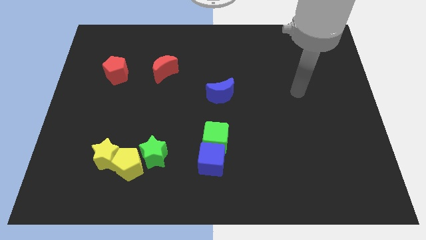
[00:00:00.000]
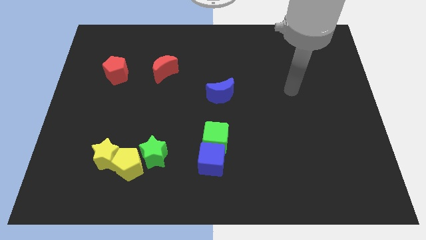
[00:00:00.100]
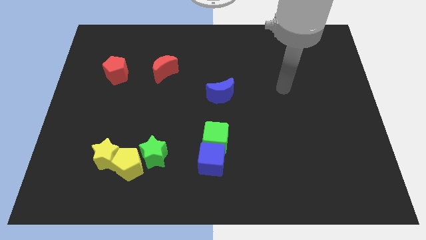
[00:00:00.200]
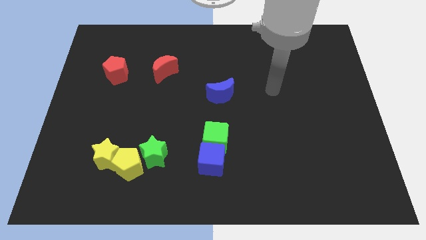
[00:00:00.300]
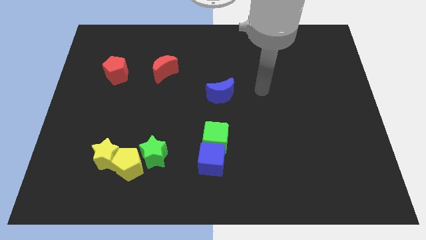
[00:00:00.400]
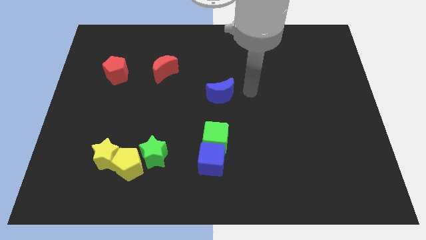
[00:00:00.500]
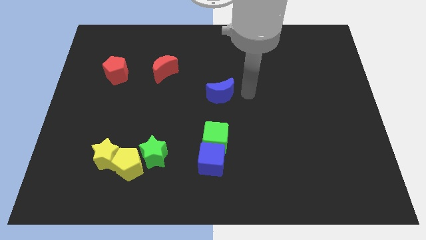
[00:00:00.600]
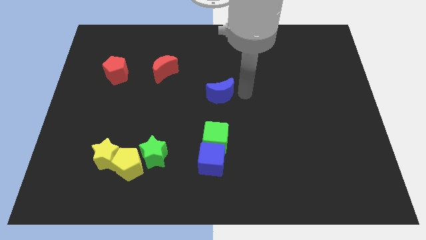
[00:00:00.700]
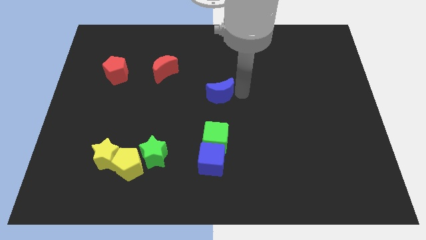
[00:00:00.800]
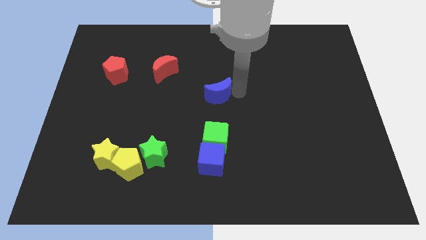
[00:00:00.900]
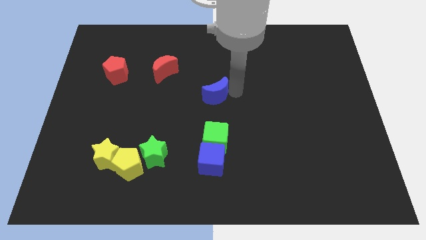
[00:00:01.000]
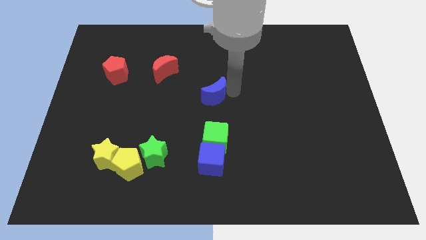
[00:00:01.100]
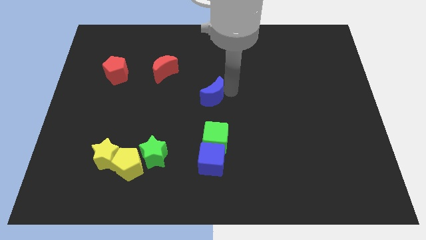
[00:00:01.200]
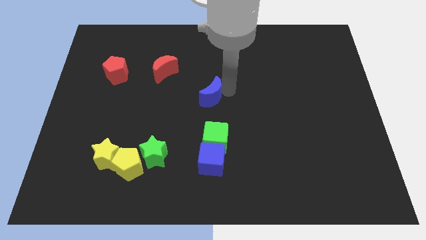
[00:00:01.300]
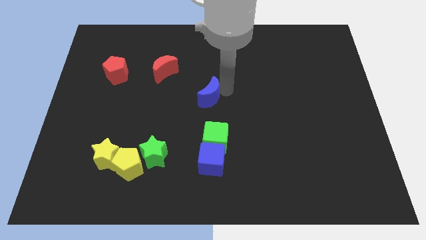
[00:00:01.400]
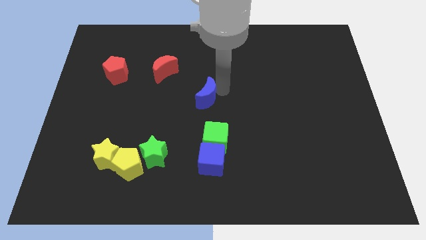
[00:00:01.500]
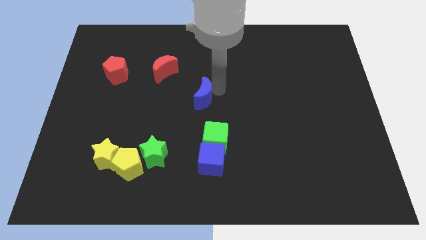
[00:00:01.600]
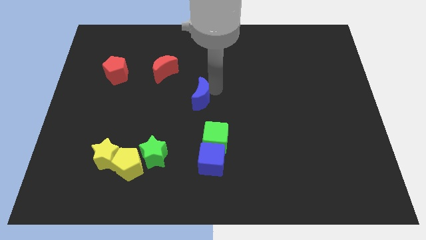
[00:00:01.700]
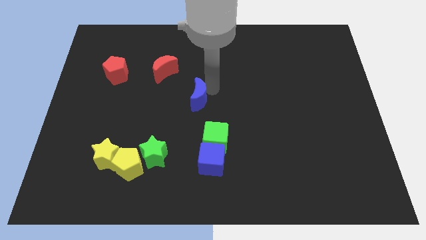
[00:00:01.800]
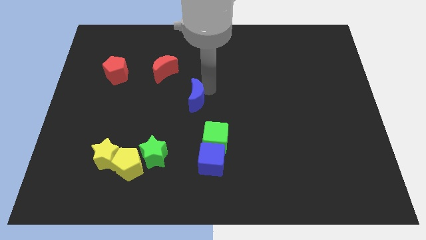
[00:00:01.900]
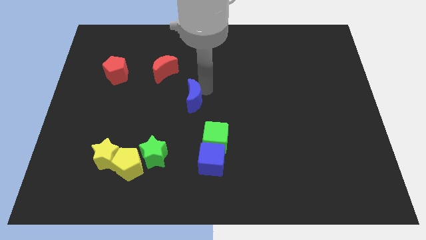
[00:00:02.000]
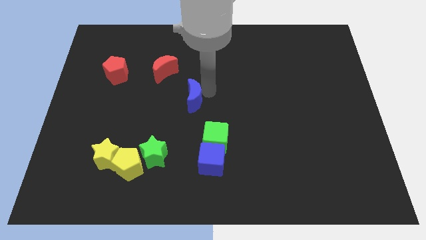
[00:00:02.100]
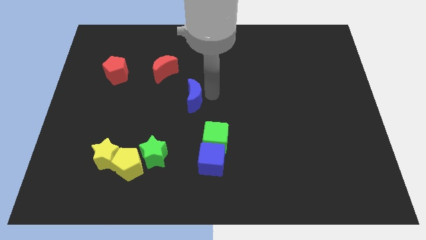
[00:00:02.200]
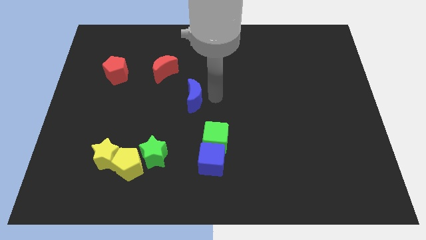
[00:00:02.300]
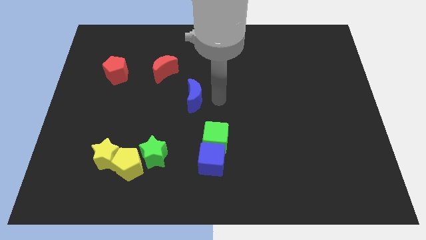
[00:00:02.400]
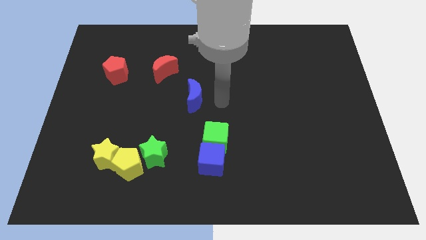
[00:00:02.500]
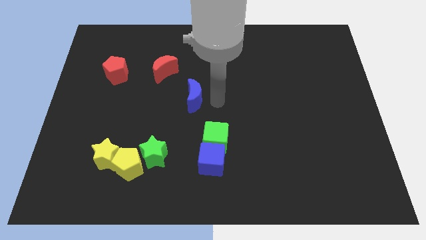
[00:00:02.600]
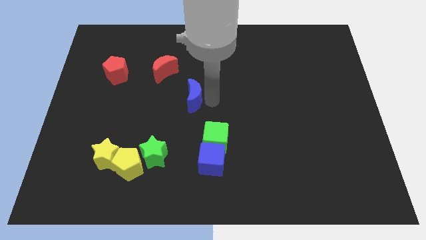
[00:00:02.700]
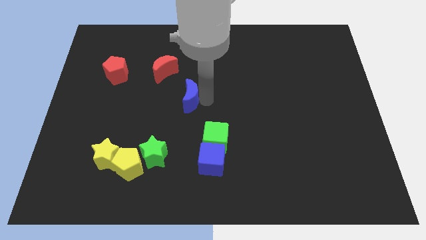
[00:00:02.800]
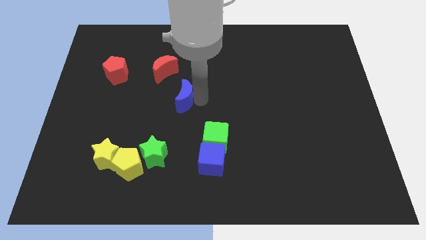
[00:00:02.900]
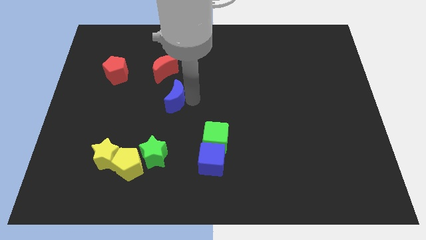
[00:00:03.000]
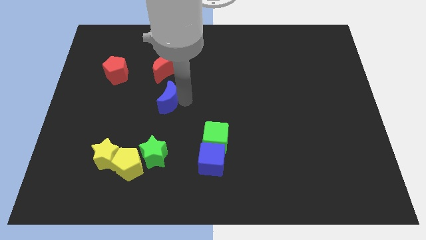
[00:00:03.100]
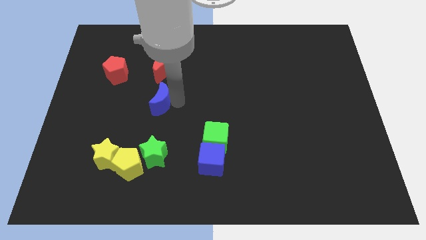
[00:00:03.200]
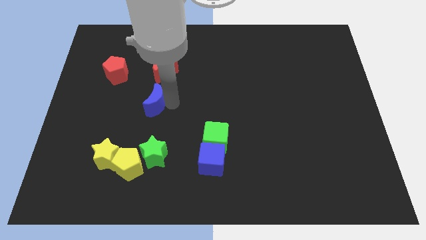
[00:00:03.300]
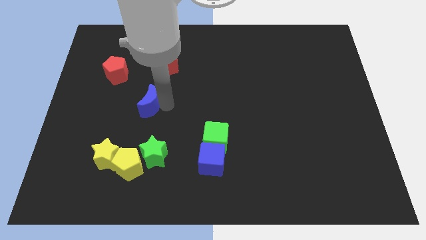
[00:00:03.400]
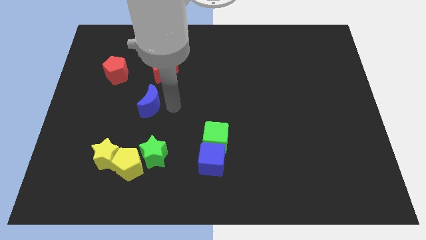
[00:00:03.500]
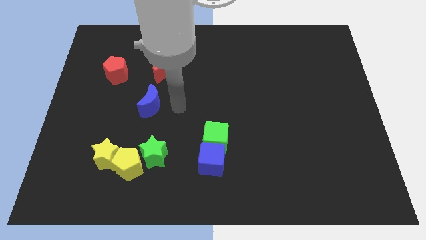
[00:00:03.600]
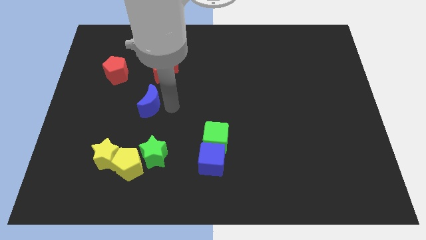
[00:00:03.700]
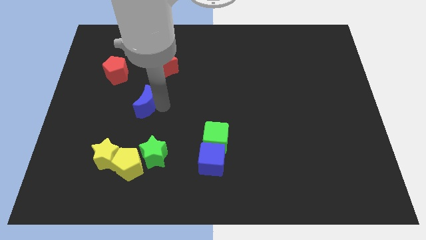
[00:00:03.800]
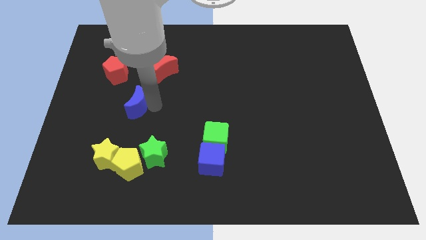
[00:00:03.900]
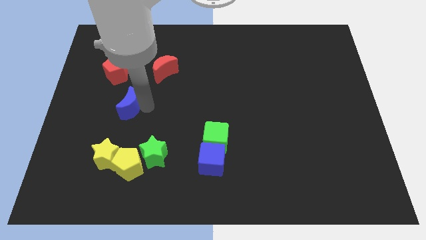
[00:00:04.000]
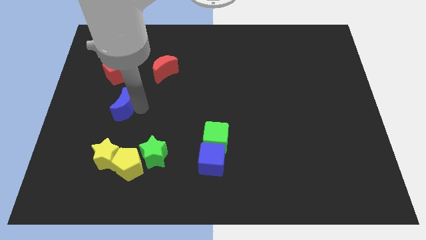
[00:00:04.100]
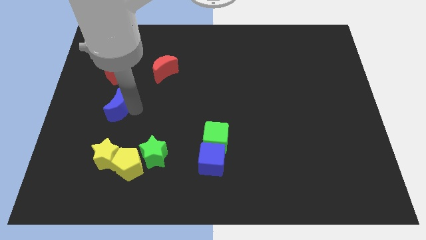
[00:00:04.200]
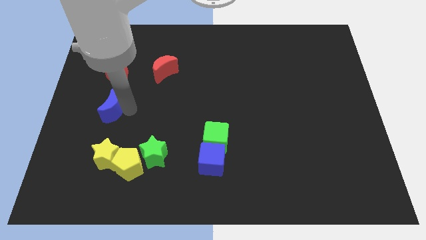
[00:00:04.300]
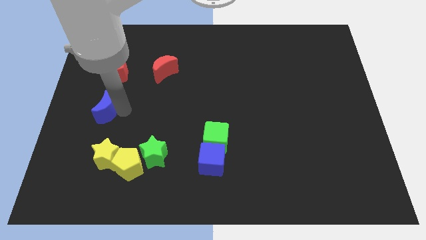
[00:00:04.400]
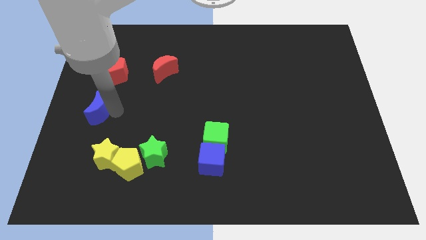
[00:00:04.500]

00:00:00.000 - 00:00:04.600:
slide the blue moon to the left side

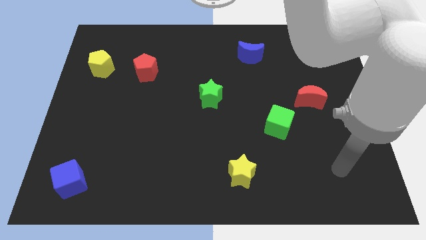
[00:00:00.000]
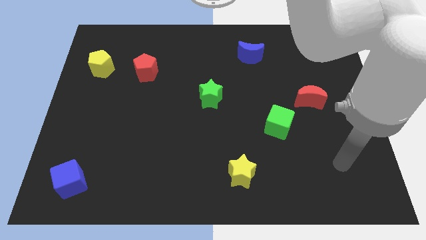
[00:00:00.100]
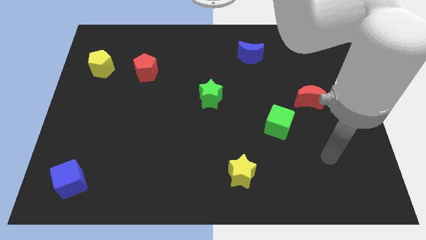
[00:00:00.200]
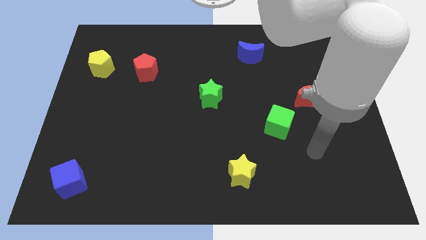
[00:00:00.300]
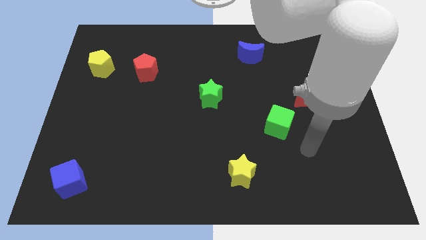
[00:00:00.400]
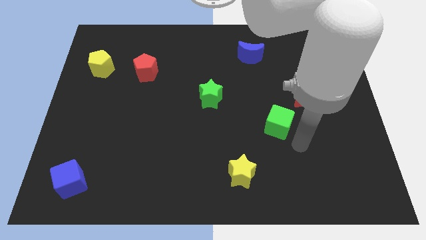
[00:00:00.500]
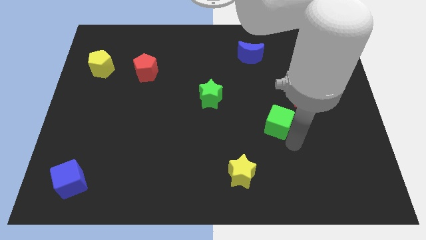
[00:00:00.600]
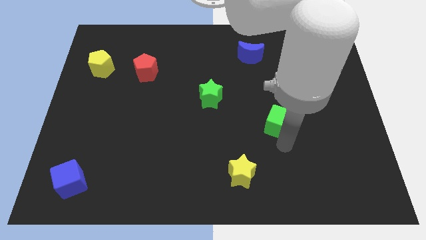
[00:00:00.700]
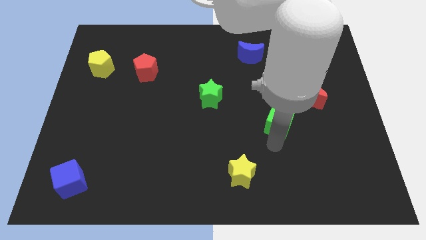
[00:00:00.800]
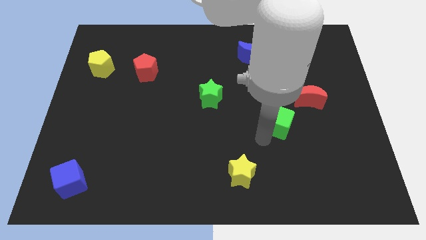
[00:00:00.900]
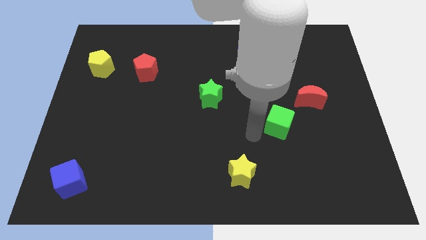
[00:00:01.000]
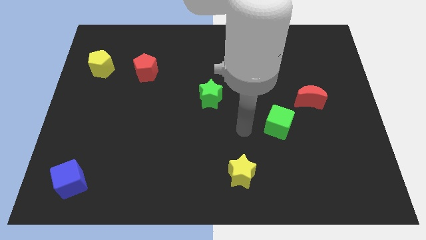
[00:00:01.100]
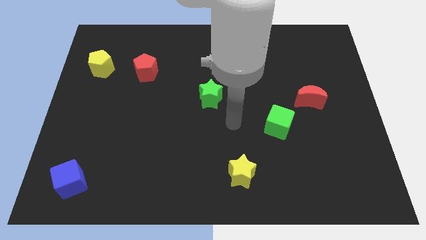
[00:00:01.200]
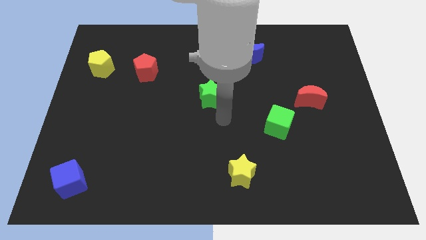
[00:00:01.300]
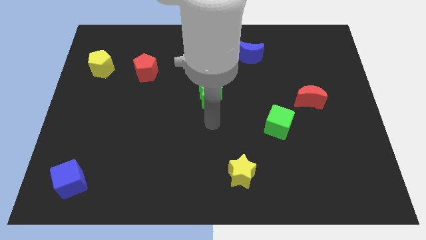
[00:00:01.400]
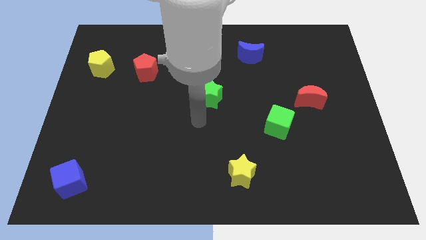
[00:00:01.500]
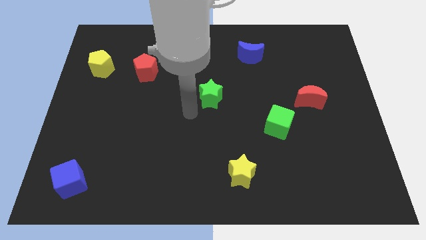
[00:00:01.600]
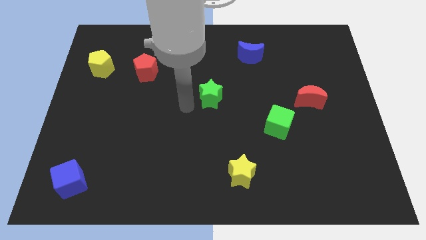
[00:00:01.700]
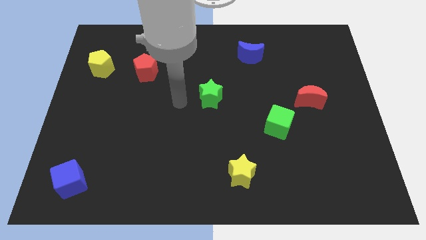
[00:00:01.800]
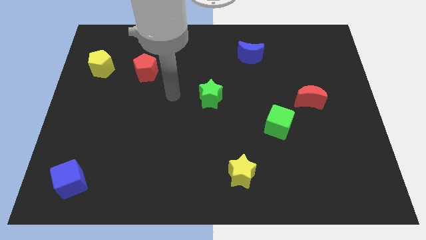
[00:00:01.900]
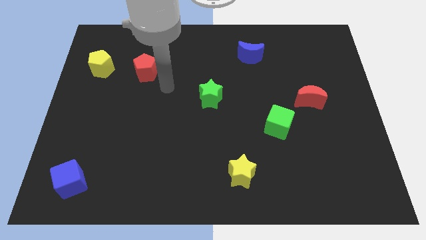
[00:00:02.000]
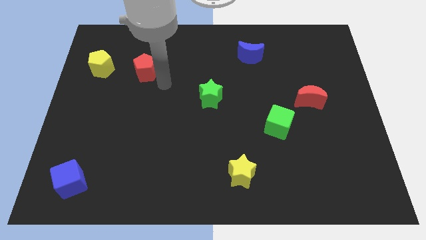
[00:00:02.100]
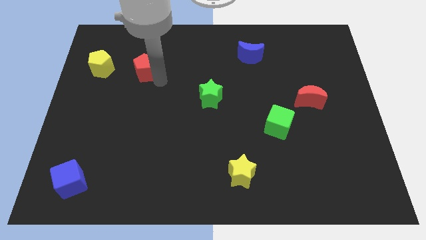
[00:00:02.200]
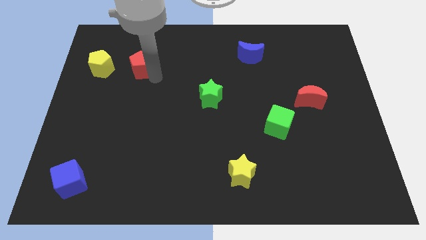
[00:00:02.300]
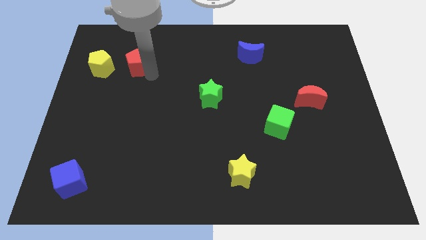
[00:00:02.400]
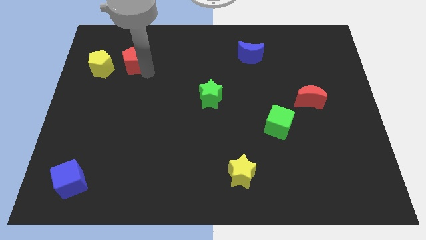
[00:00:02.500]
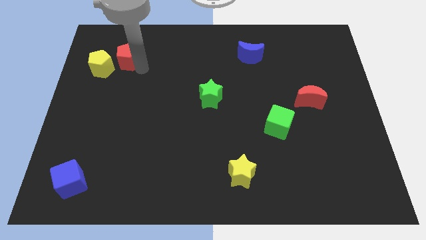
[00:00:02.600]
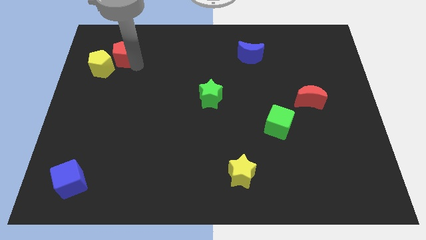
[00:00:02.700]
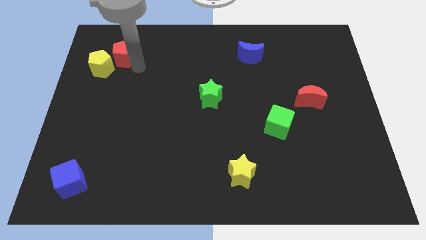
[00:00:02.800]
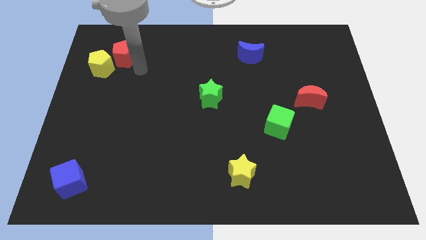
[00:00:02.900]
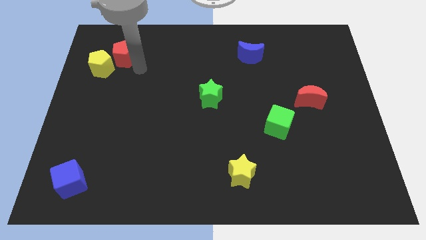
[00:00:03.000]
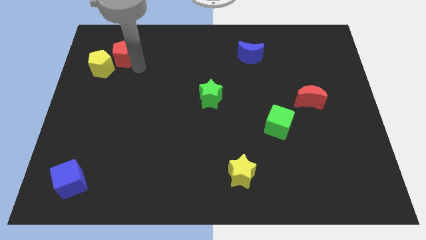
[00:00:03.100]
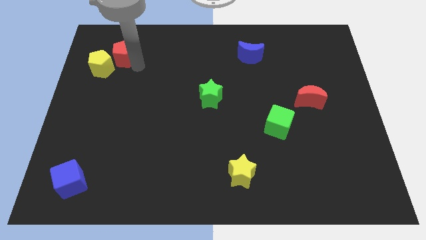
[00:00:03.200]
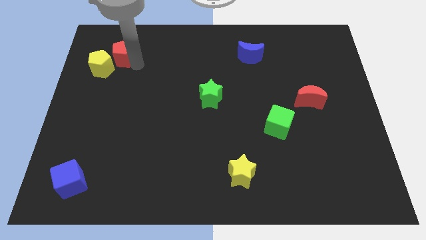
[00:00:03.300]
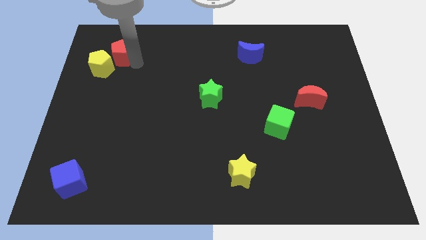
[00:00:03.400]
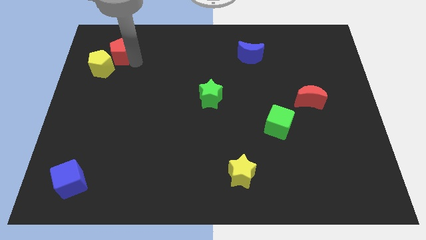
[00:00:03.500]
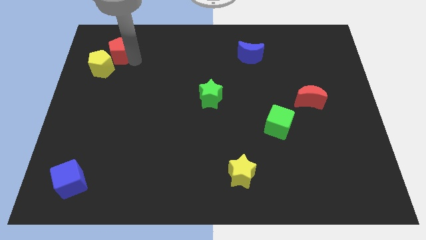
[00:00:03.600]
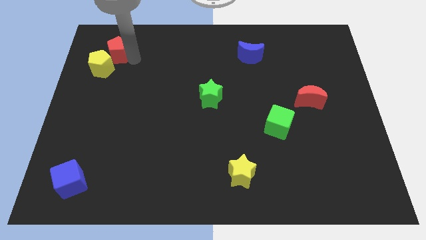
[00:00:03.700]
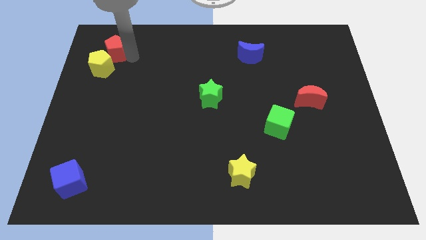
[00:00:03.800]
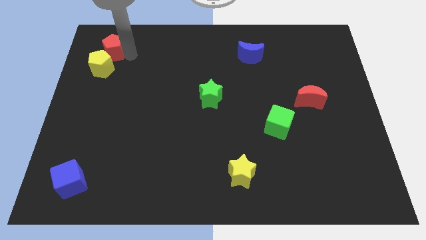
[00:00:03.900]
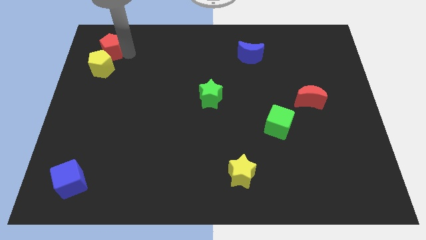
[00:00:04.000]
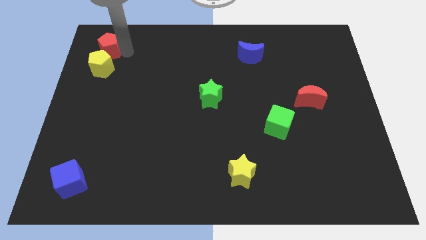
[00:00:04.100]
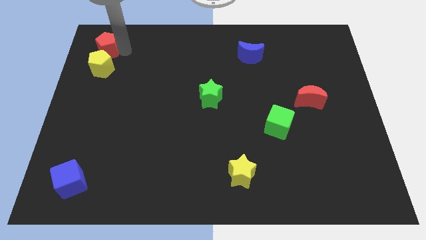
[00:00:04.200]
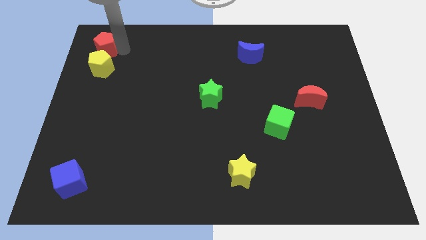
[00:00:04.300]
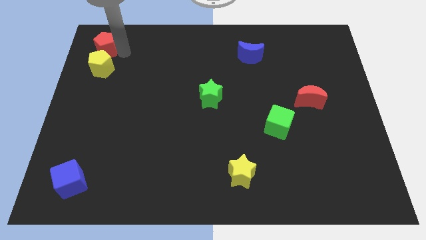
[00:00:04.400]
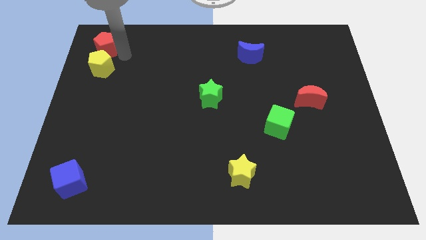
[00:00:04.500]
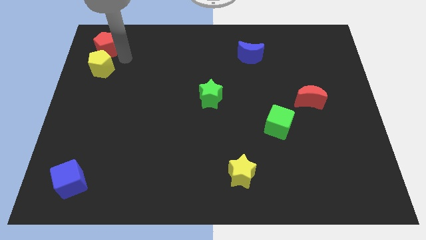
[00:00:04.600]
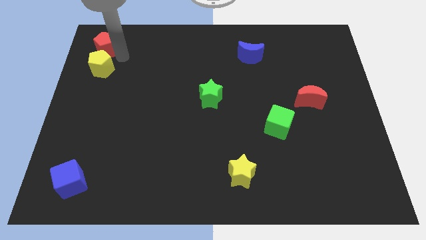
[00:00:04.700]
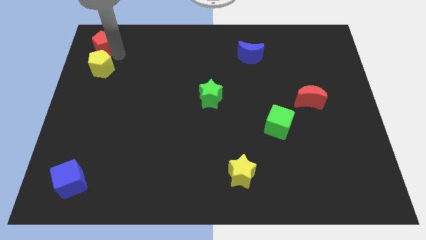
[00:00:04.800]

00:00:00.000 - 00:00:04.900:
put the red pentagon to the top left
